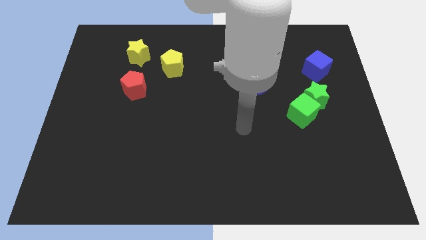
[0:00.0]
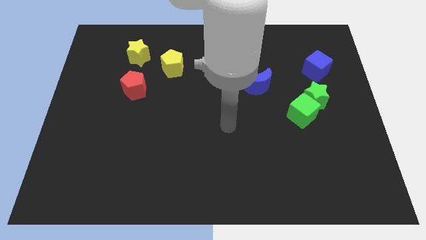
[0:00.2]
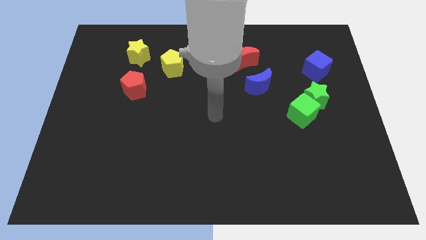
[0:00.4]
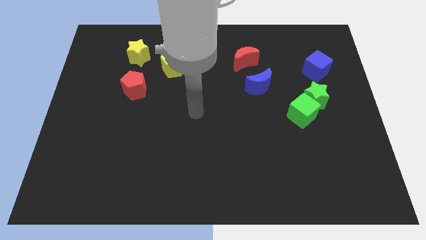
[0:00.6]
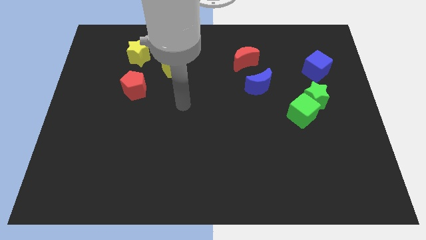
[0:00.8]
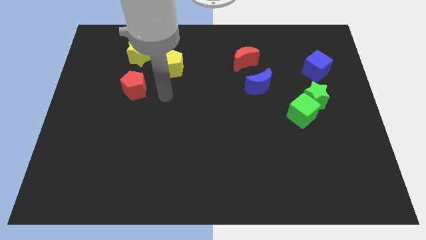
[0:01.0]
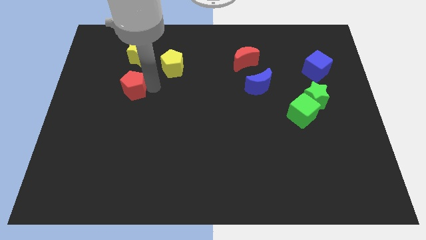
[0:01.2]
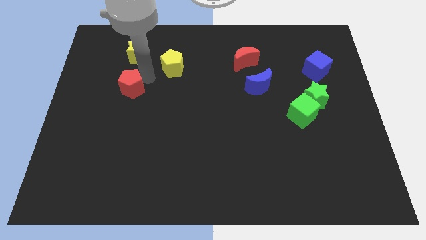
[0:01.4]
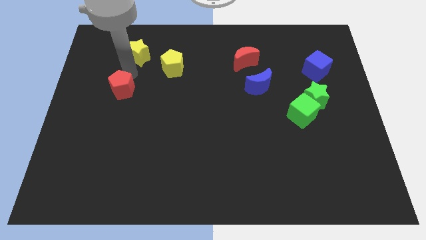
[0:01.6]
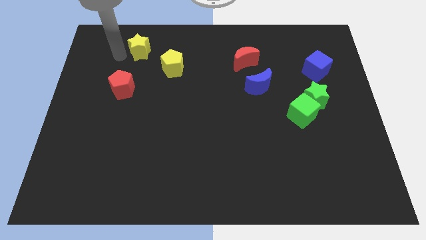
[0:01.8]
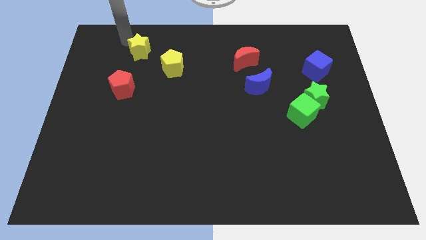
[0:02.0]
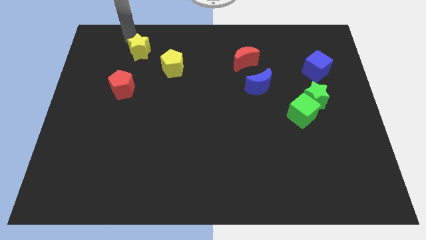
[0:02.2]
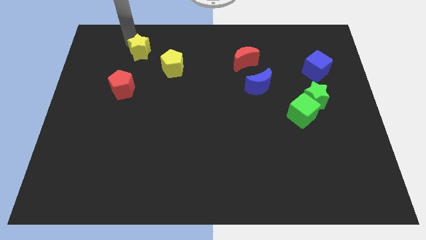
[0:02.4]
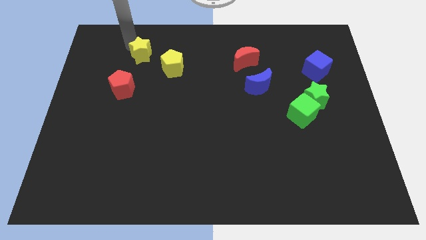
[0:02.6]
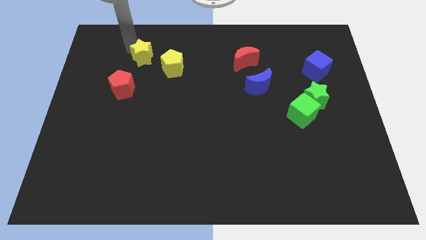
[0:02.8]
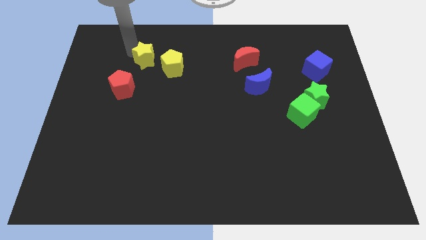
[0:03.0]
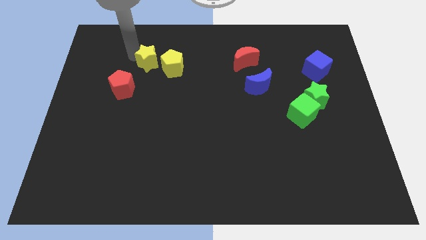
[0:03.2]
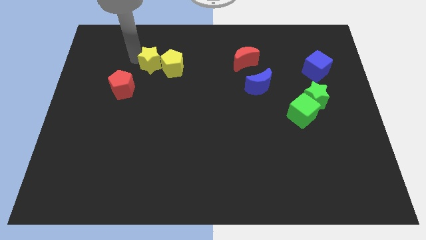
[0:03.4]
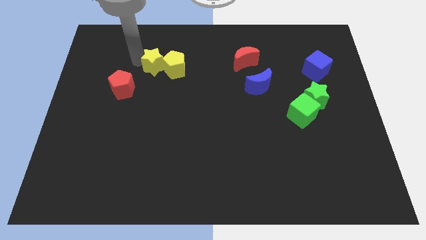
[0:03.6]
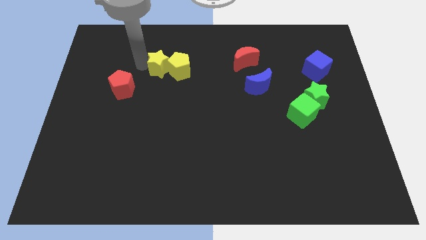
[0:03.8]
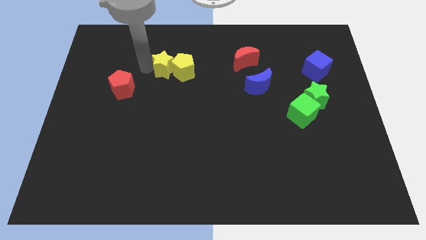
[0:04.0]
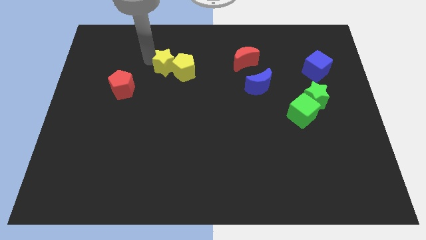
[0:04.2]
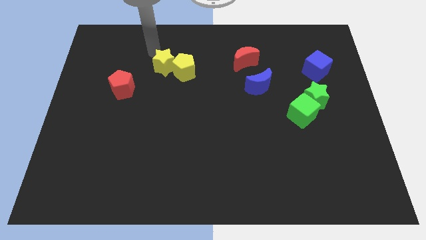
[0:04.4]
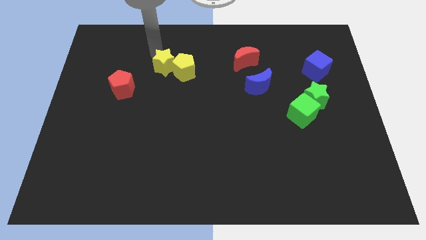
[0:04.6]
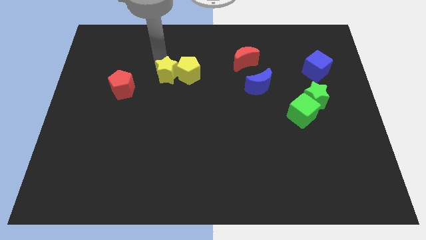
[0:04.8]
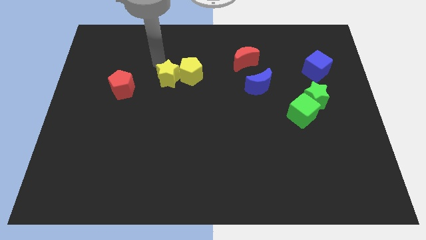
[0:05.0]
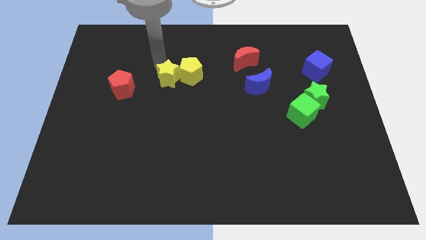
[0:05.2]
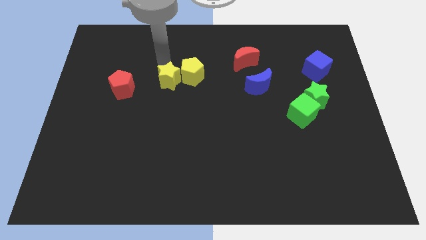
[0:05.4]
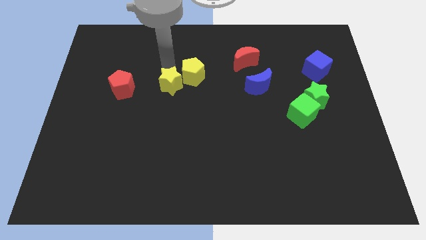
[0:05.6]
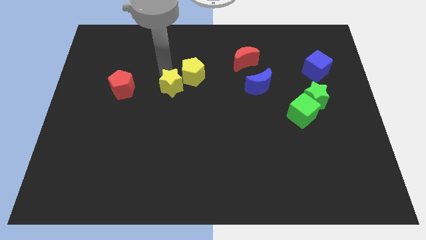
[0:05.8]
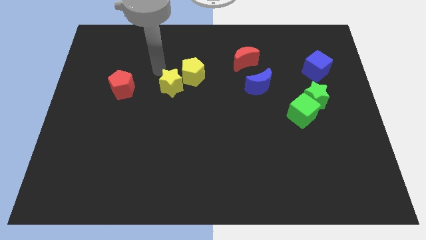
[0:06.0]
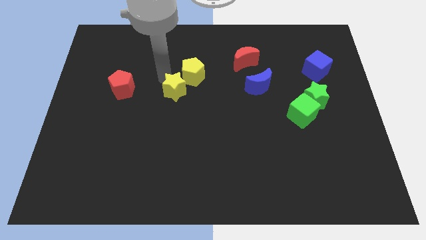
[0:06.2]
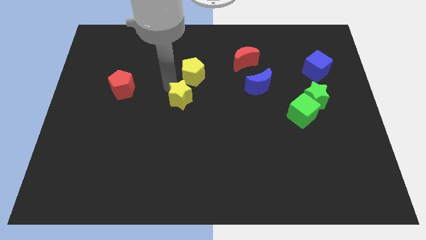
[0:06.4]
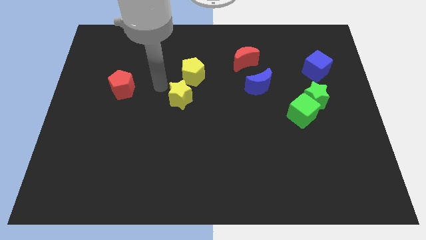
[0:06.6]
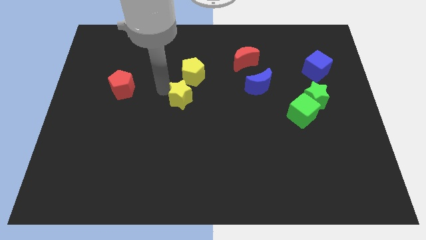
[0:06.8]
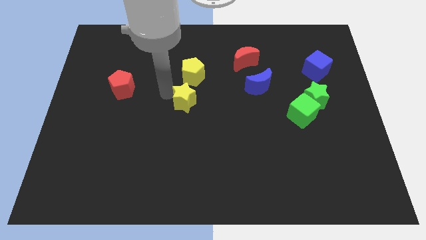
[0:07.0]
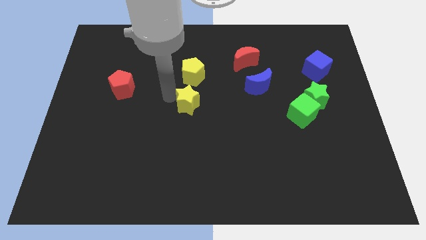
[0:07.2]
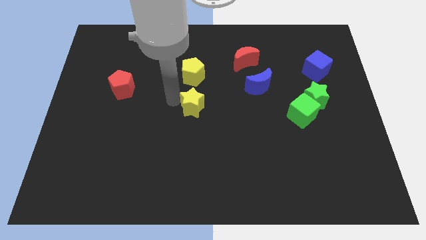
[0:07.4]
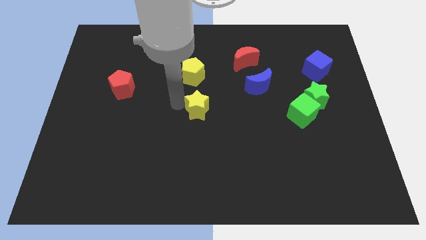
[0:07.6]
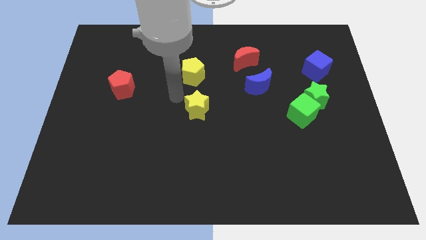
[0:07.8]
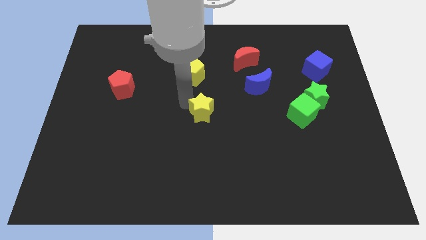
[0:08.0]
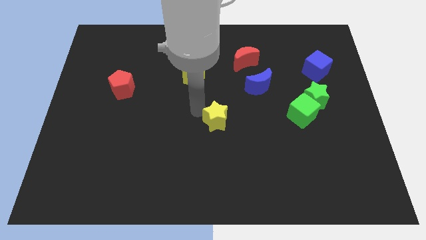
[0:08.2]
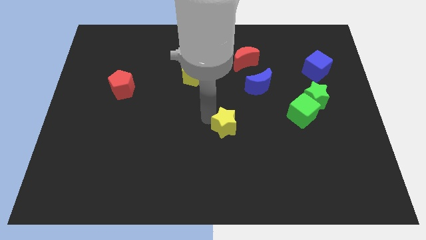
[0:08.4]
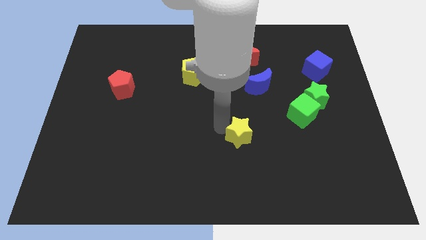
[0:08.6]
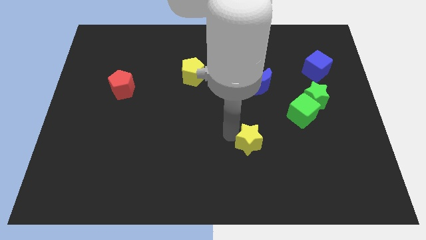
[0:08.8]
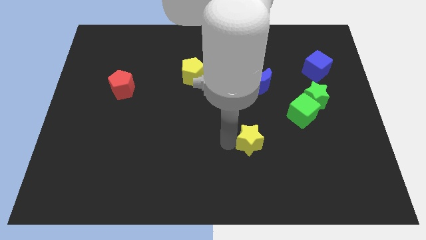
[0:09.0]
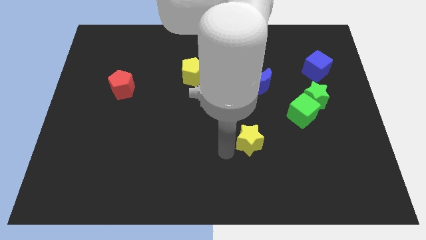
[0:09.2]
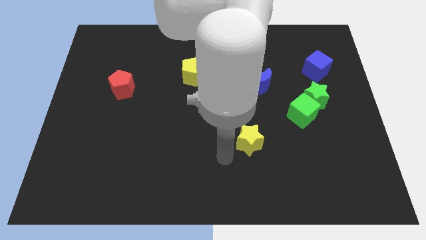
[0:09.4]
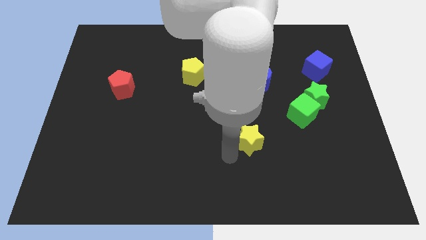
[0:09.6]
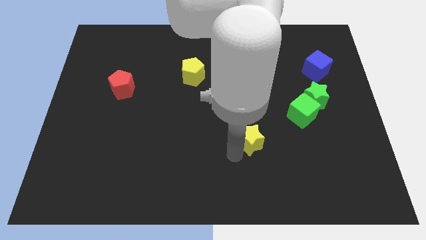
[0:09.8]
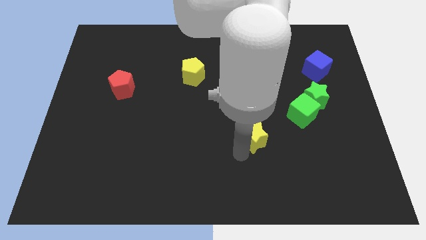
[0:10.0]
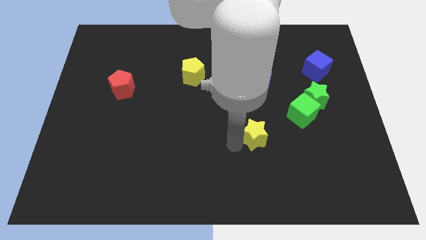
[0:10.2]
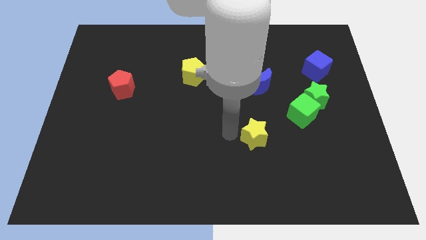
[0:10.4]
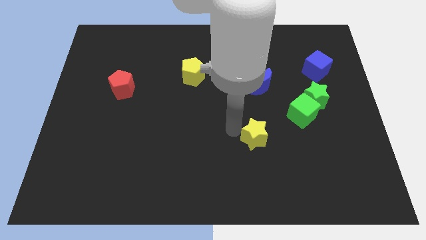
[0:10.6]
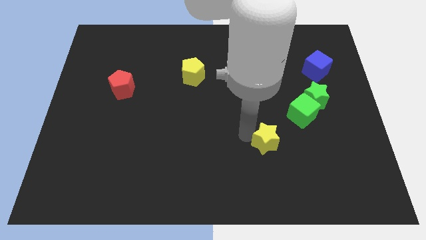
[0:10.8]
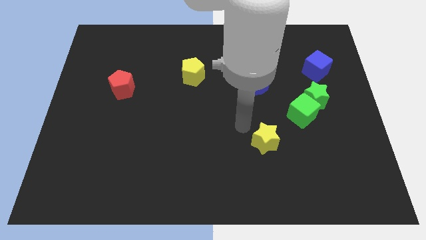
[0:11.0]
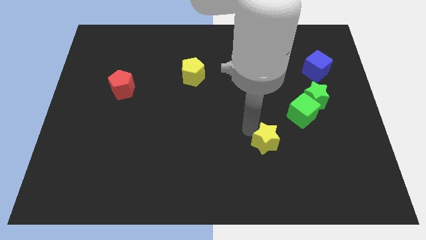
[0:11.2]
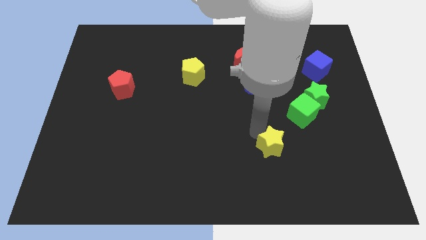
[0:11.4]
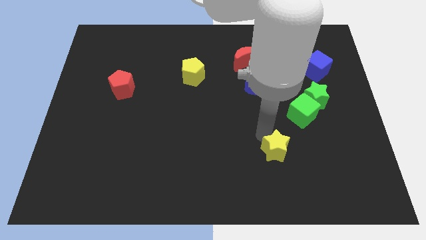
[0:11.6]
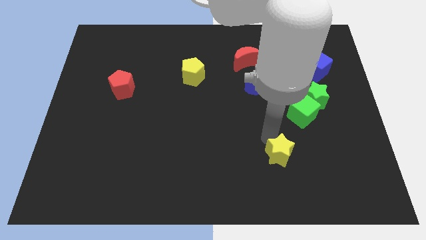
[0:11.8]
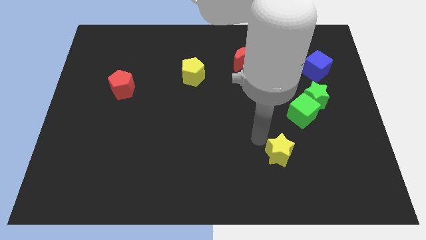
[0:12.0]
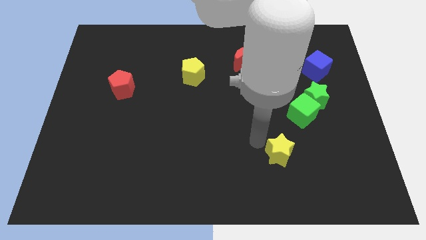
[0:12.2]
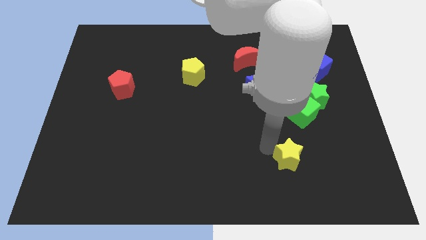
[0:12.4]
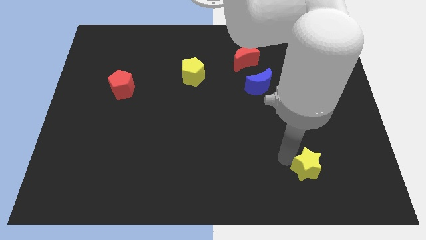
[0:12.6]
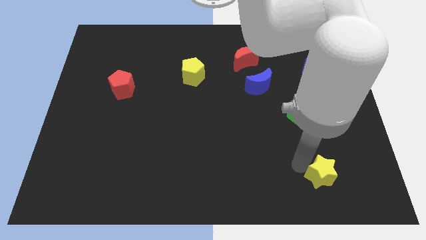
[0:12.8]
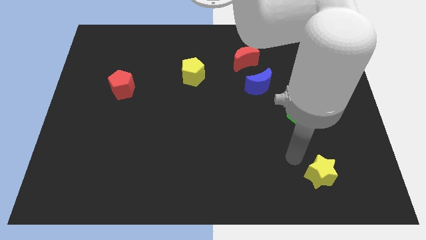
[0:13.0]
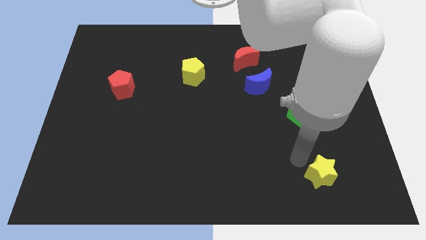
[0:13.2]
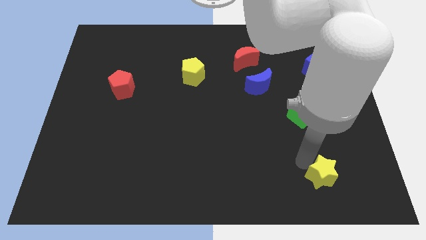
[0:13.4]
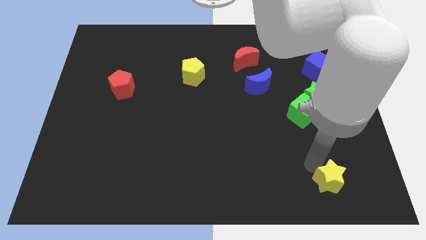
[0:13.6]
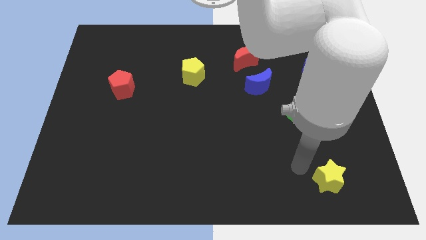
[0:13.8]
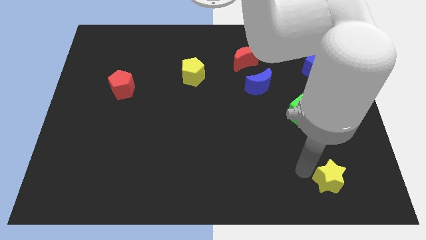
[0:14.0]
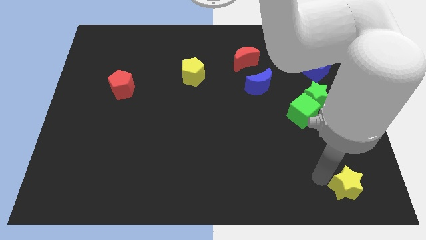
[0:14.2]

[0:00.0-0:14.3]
slide the yellow star to the bottom right
